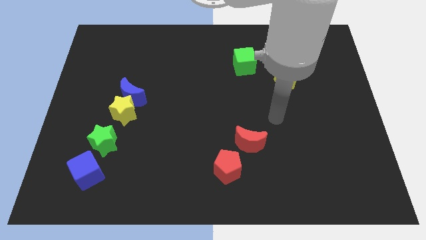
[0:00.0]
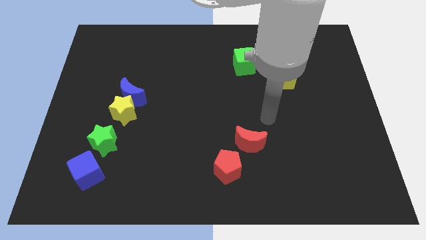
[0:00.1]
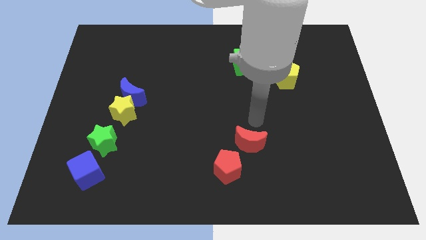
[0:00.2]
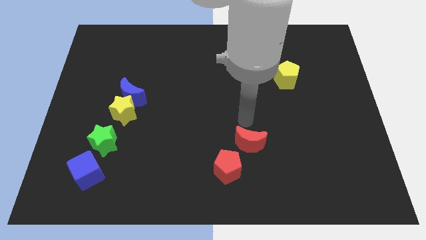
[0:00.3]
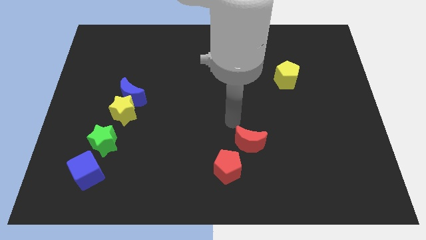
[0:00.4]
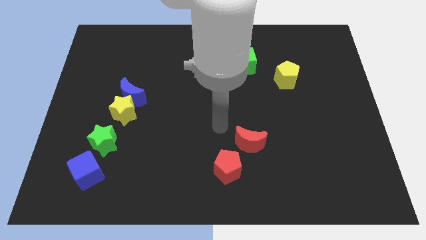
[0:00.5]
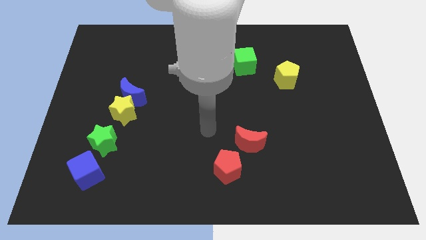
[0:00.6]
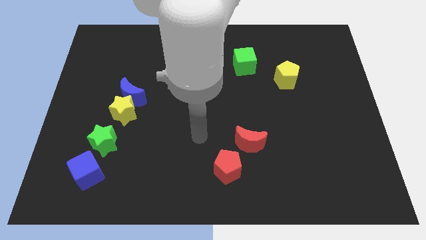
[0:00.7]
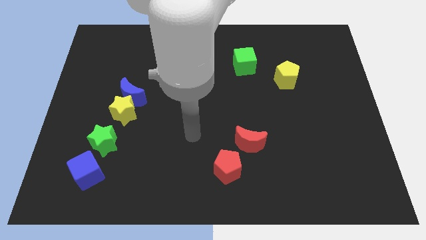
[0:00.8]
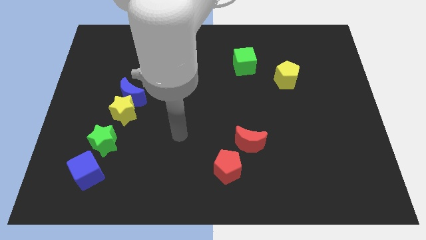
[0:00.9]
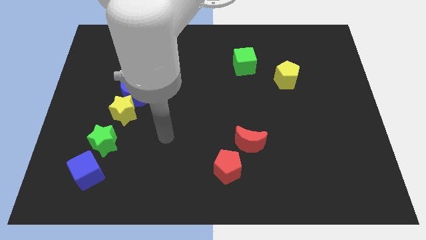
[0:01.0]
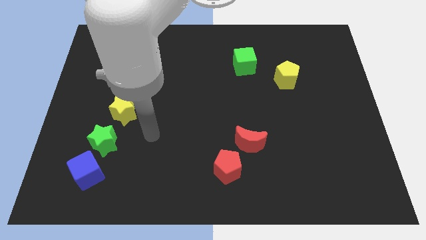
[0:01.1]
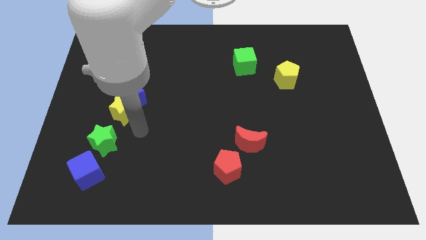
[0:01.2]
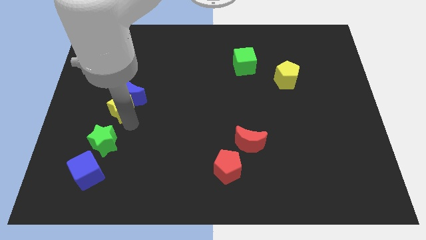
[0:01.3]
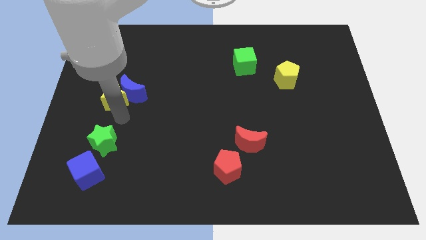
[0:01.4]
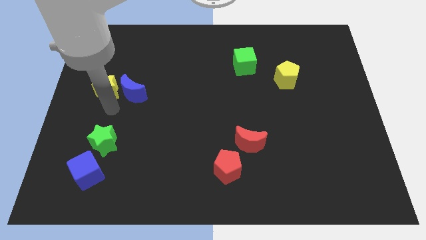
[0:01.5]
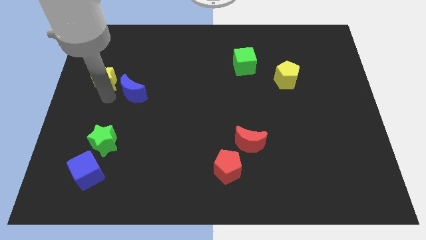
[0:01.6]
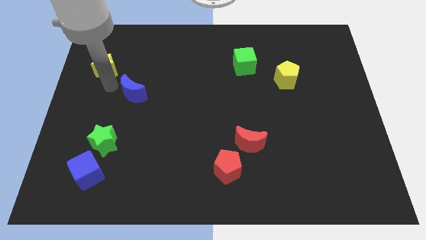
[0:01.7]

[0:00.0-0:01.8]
move the blue moon away from the yellow star

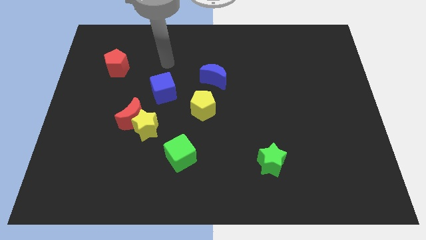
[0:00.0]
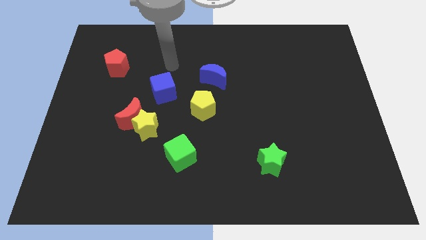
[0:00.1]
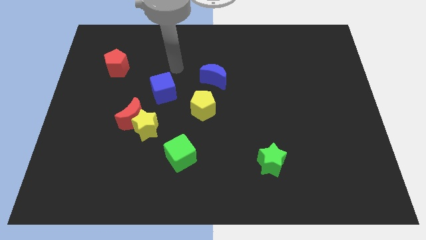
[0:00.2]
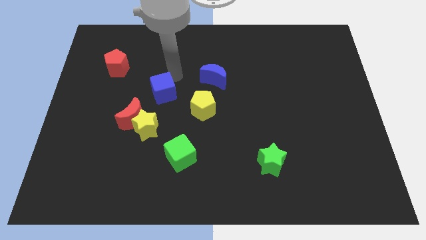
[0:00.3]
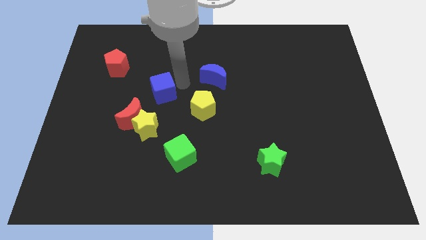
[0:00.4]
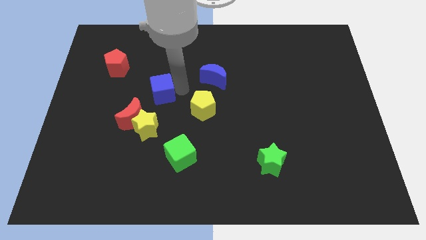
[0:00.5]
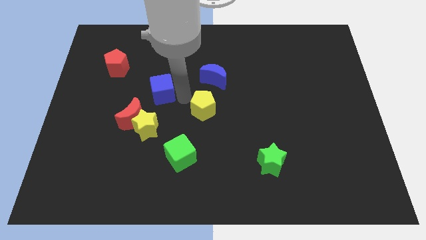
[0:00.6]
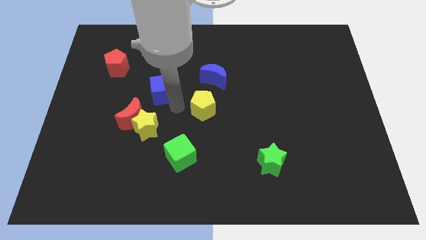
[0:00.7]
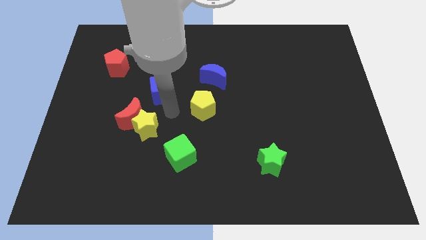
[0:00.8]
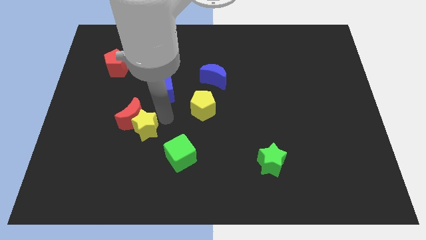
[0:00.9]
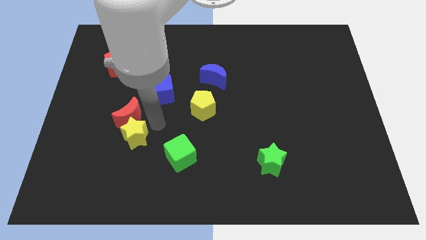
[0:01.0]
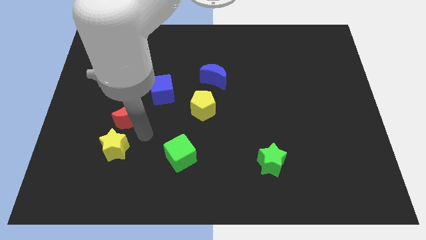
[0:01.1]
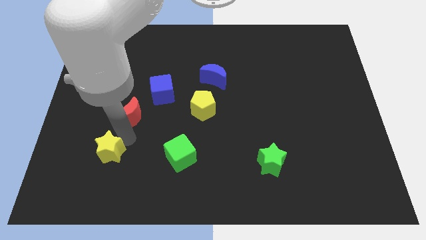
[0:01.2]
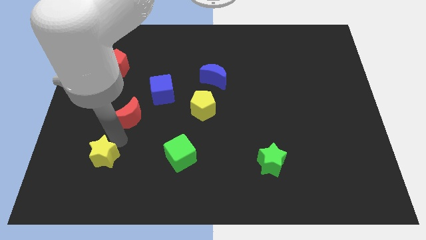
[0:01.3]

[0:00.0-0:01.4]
separate the red moon from the yellow star

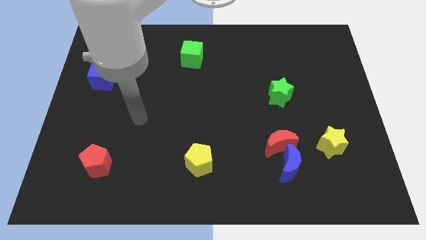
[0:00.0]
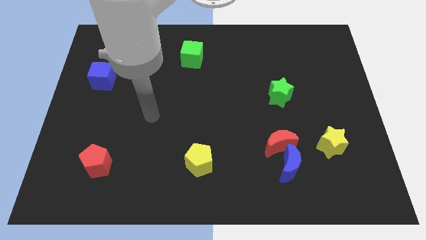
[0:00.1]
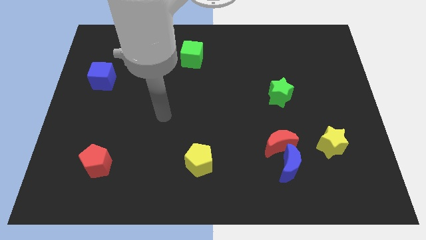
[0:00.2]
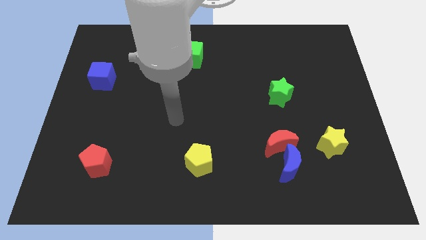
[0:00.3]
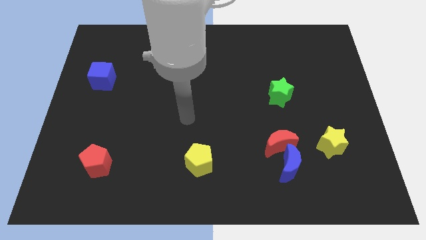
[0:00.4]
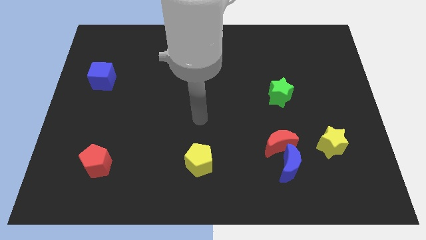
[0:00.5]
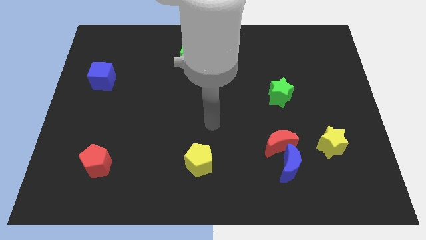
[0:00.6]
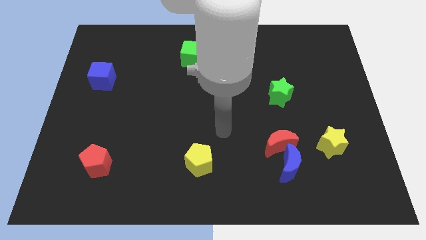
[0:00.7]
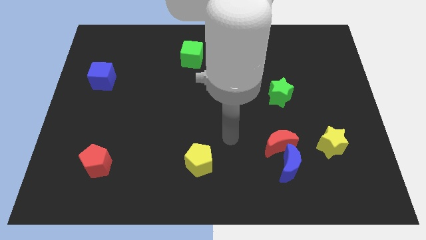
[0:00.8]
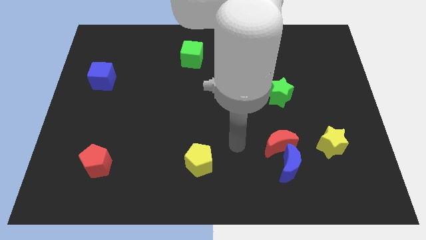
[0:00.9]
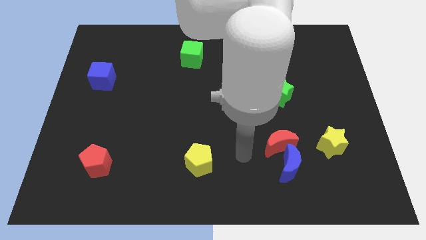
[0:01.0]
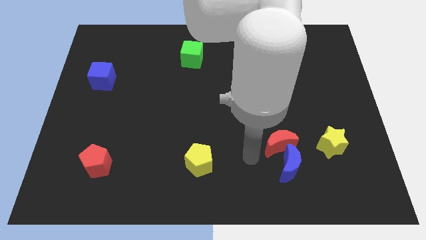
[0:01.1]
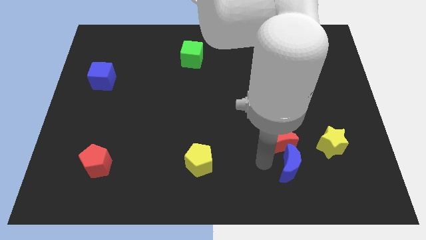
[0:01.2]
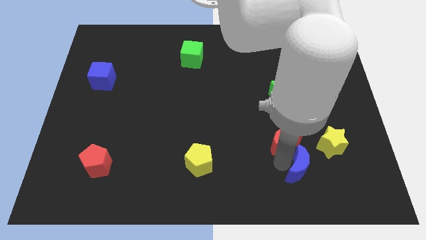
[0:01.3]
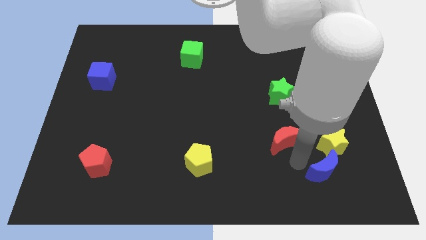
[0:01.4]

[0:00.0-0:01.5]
move the red moon away from the blue moon

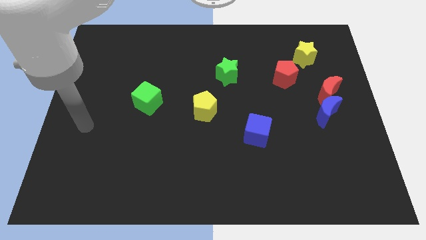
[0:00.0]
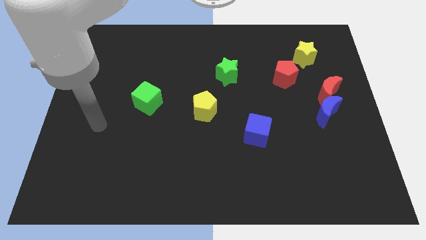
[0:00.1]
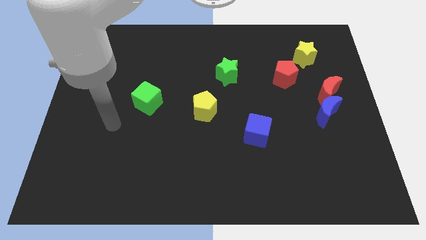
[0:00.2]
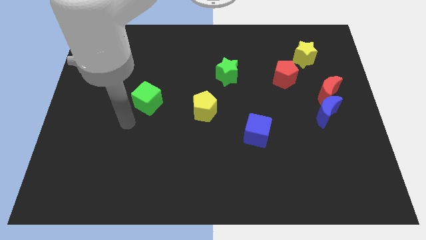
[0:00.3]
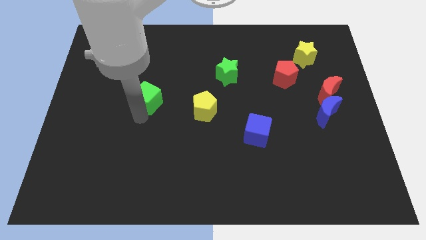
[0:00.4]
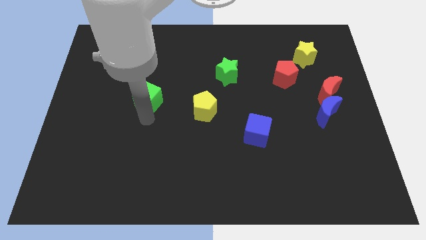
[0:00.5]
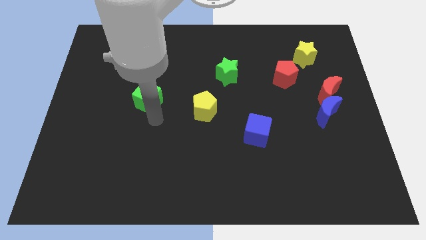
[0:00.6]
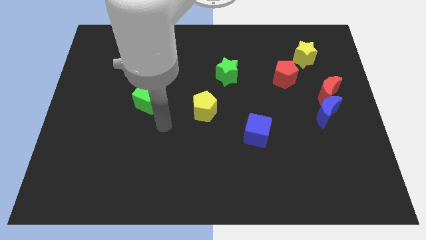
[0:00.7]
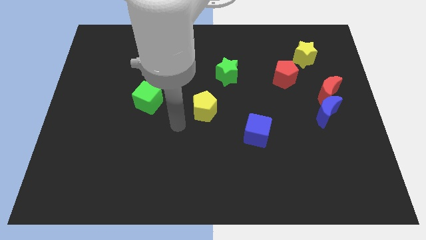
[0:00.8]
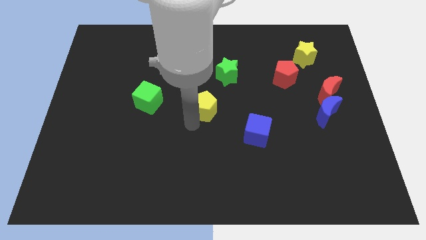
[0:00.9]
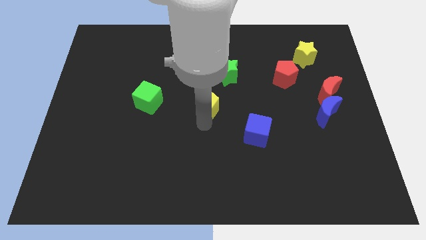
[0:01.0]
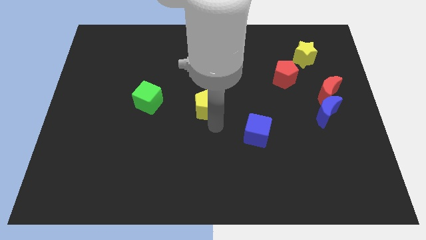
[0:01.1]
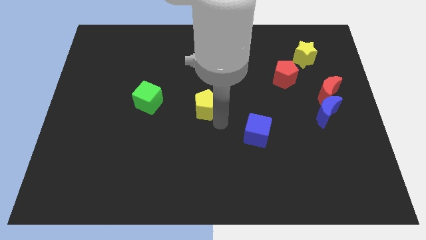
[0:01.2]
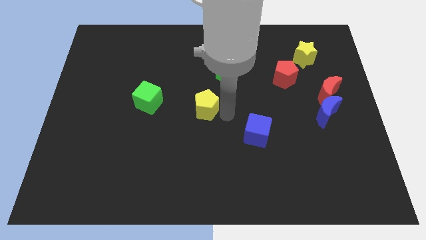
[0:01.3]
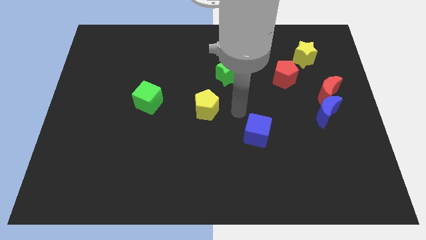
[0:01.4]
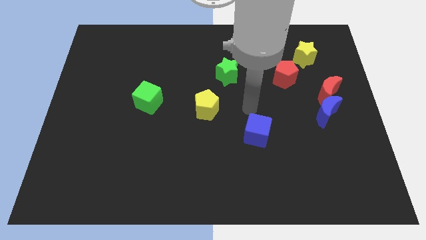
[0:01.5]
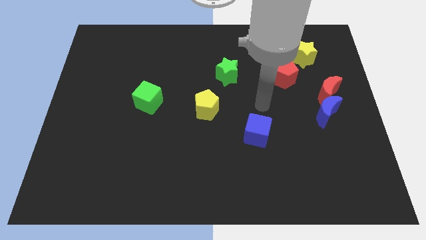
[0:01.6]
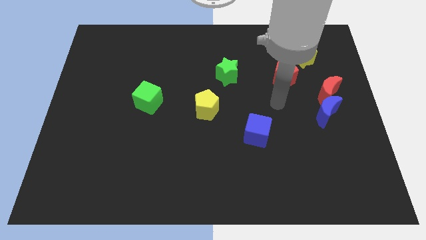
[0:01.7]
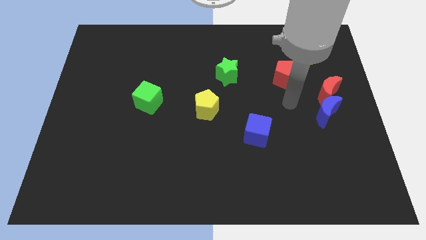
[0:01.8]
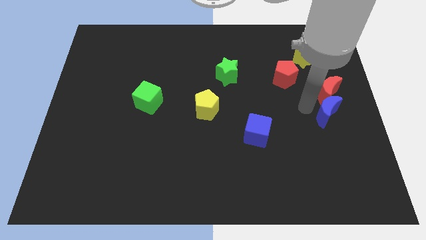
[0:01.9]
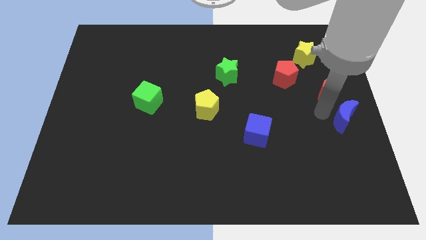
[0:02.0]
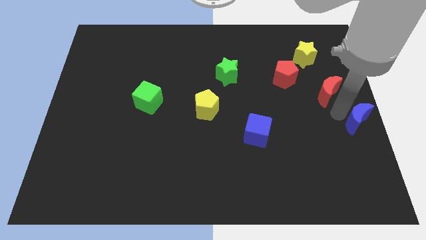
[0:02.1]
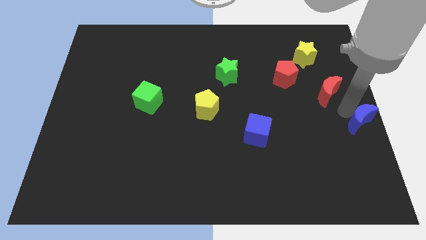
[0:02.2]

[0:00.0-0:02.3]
pull the red moon apart from the blue moon

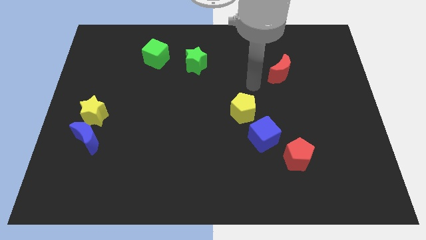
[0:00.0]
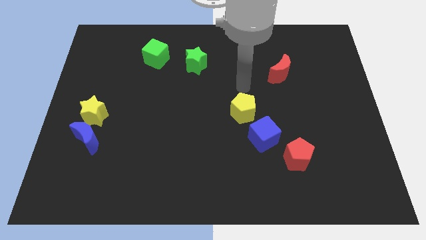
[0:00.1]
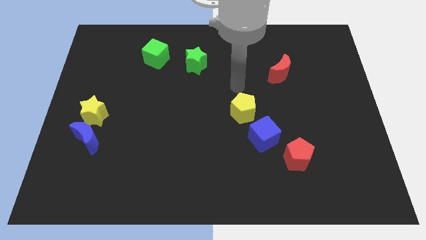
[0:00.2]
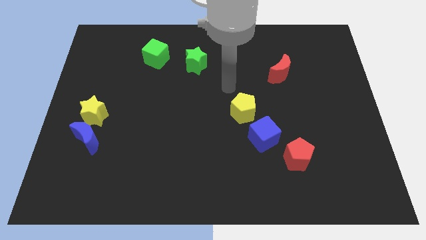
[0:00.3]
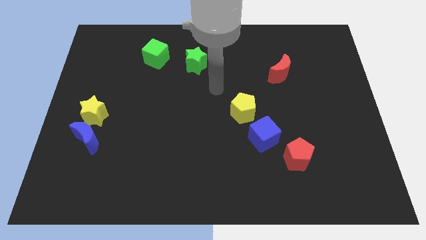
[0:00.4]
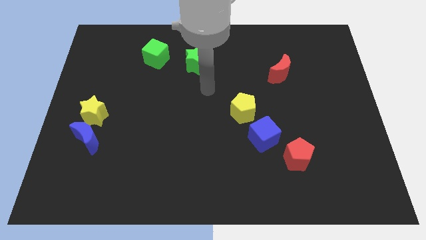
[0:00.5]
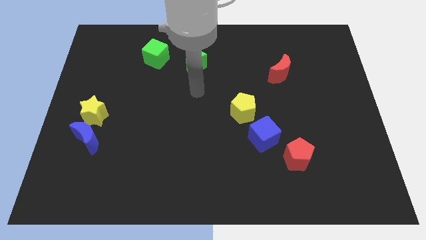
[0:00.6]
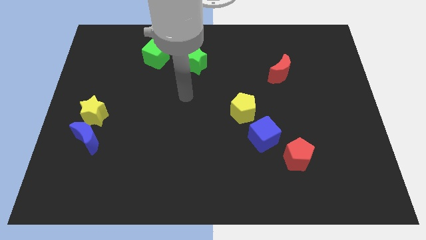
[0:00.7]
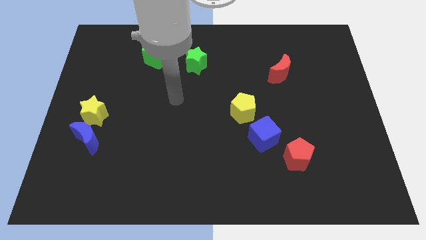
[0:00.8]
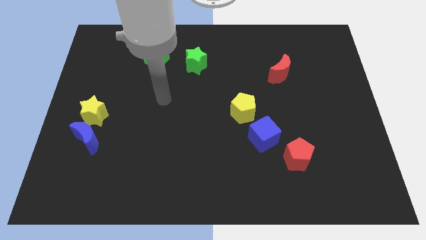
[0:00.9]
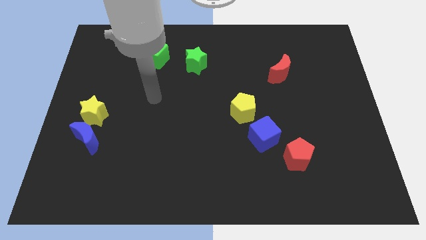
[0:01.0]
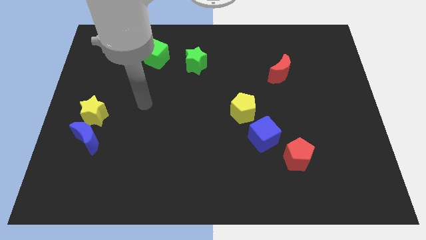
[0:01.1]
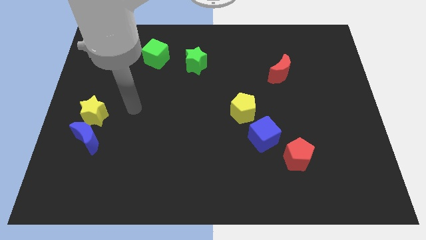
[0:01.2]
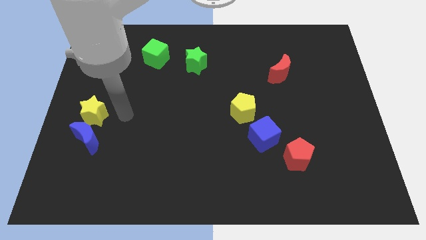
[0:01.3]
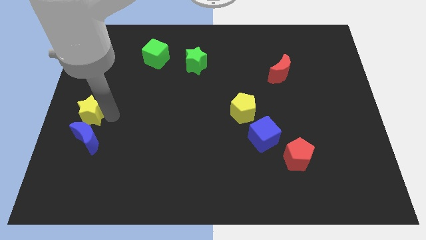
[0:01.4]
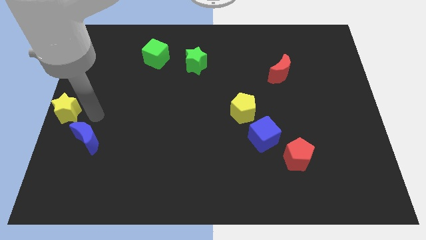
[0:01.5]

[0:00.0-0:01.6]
pull the blue moon apart from the yellow star

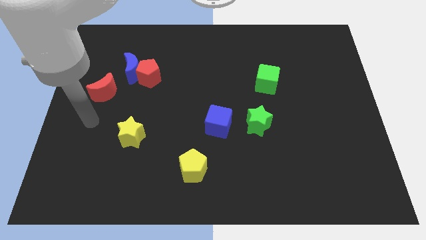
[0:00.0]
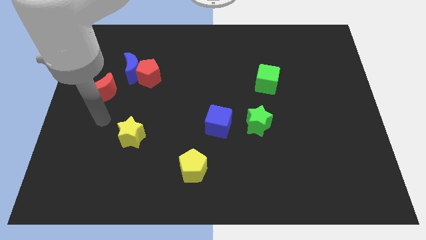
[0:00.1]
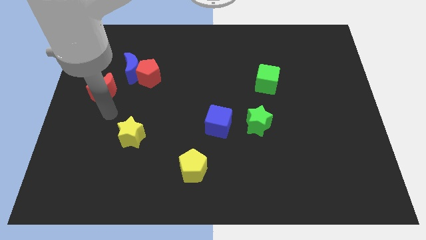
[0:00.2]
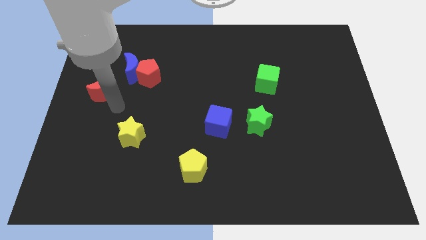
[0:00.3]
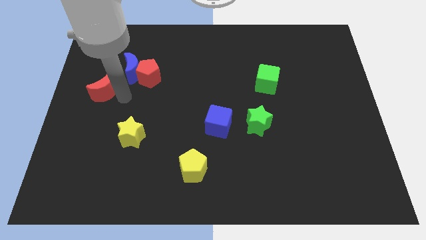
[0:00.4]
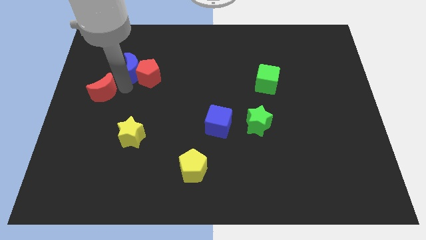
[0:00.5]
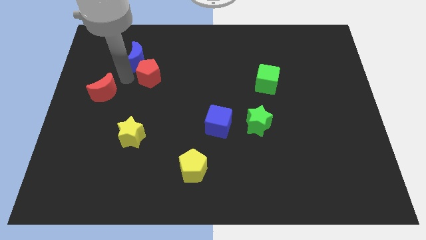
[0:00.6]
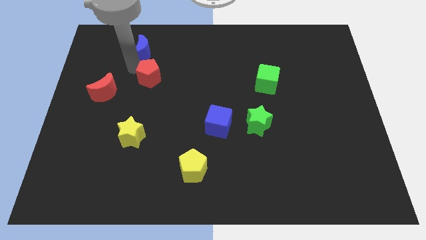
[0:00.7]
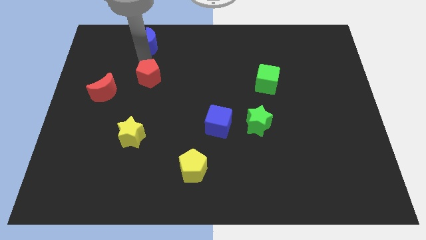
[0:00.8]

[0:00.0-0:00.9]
separate the red pentagon from the blue moon
